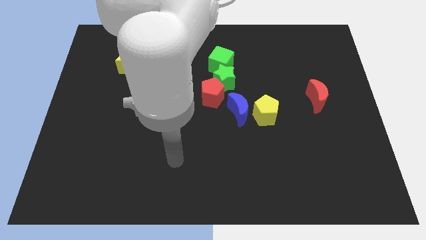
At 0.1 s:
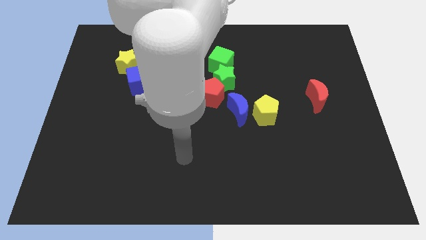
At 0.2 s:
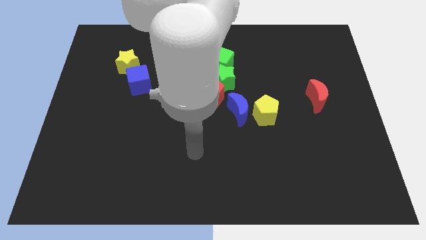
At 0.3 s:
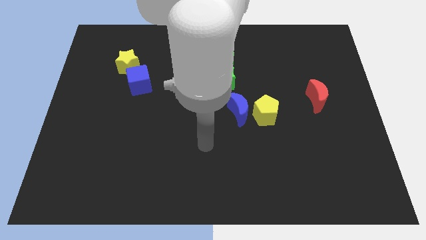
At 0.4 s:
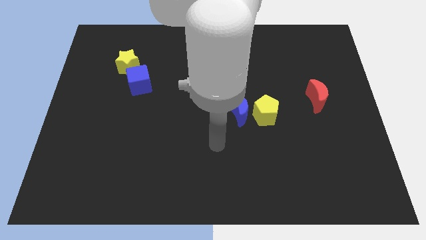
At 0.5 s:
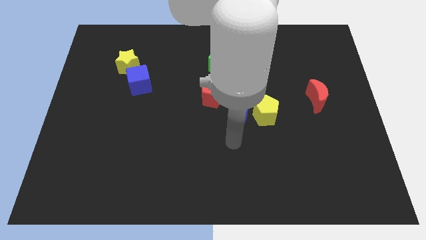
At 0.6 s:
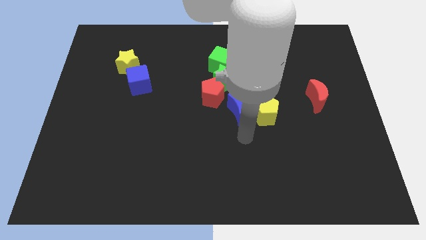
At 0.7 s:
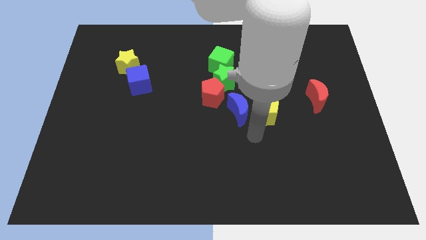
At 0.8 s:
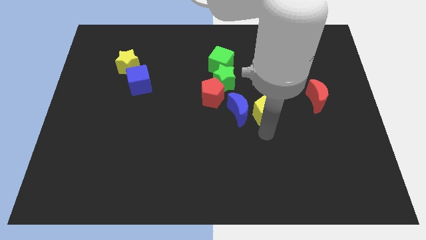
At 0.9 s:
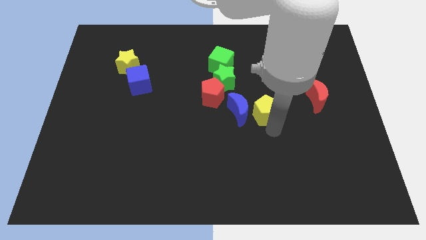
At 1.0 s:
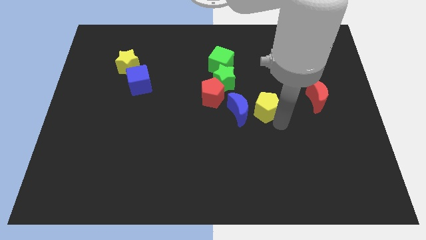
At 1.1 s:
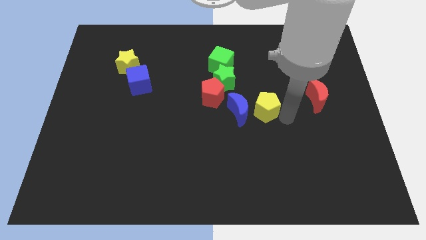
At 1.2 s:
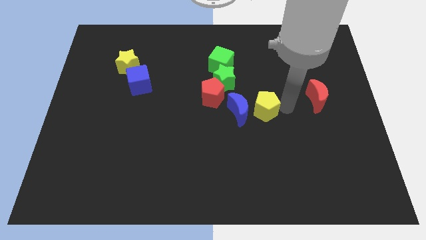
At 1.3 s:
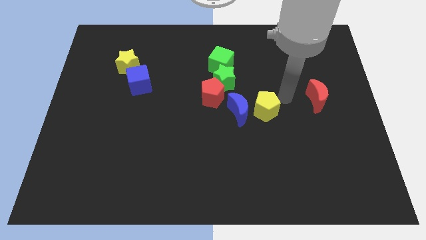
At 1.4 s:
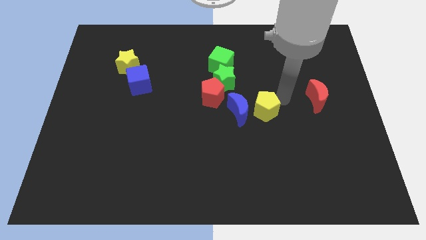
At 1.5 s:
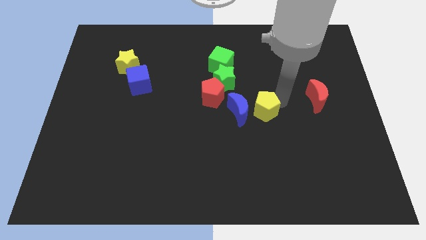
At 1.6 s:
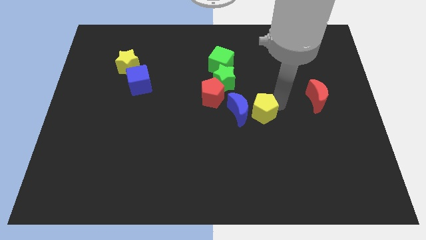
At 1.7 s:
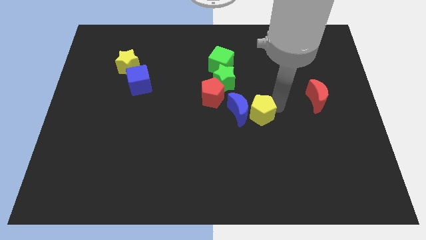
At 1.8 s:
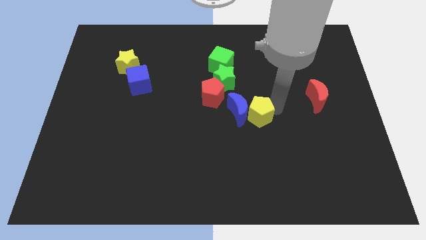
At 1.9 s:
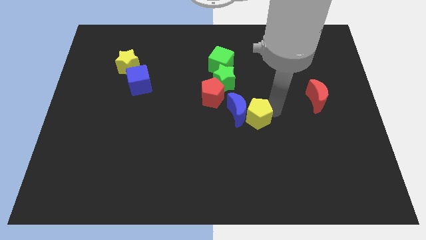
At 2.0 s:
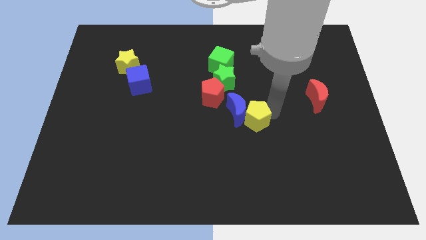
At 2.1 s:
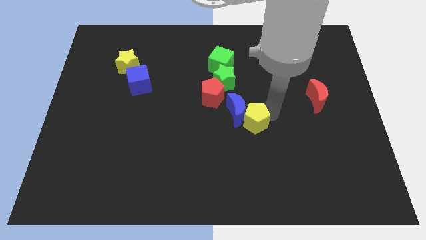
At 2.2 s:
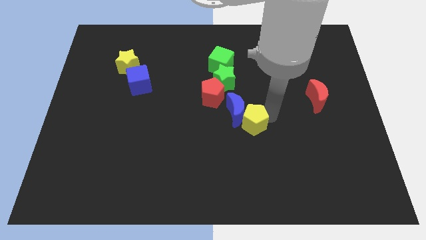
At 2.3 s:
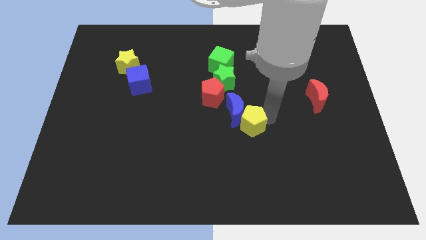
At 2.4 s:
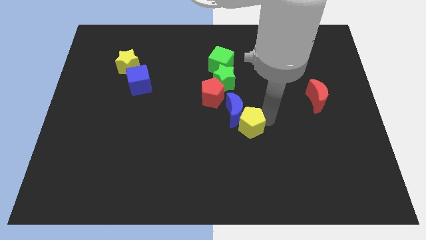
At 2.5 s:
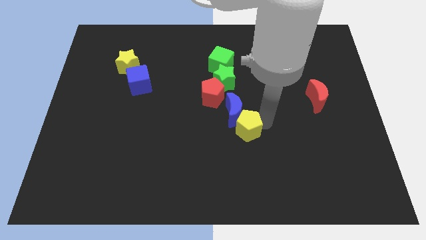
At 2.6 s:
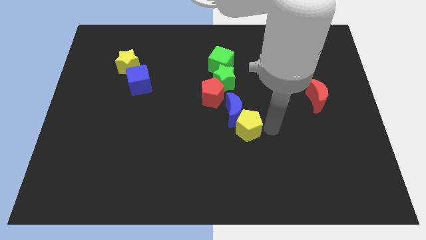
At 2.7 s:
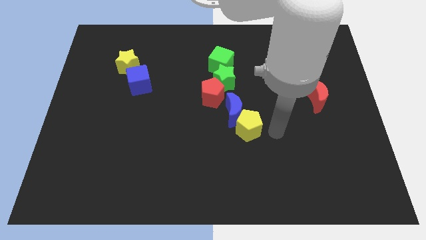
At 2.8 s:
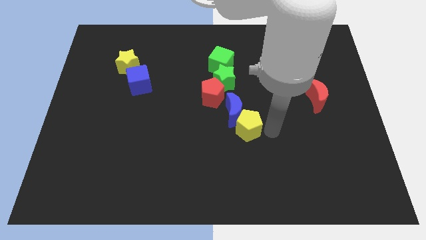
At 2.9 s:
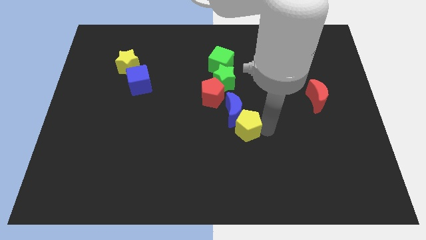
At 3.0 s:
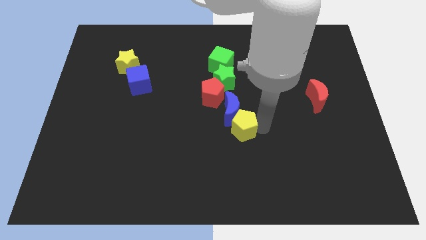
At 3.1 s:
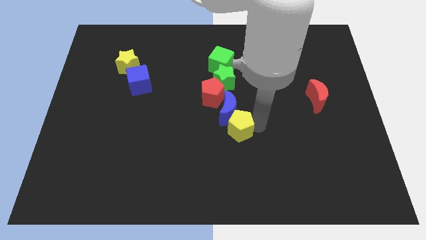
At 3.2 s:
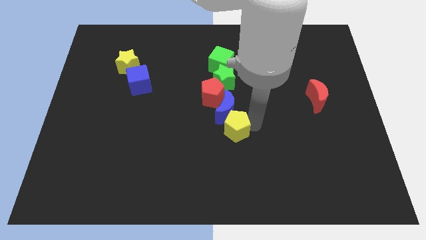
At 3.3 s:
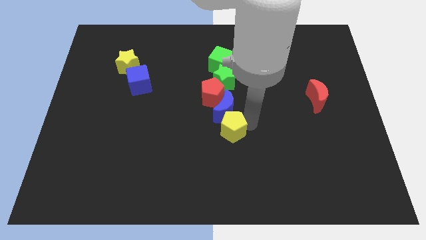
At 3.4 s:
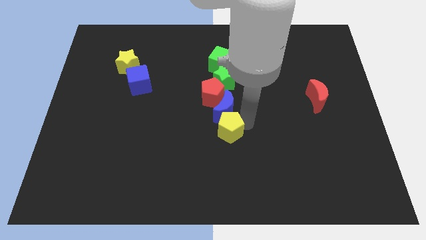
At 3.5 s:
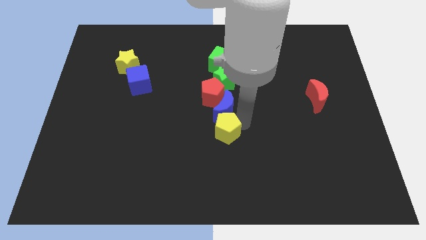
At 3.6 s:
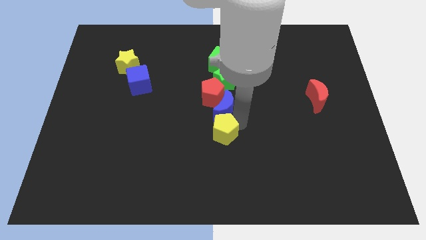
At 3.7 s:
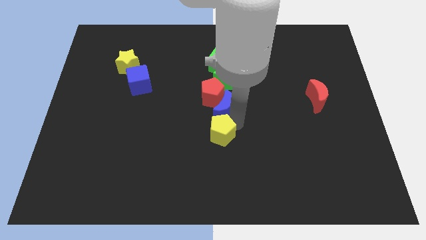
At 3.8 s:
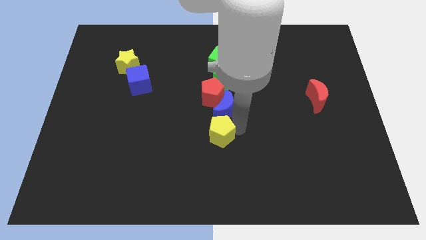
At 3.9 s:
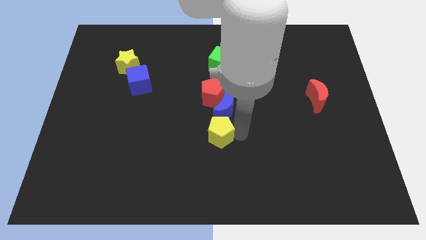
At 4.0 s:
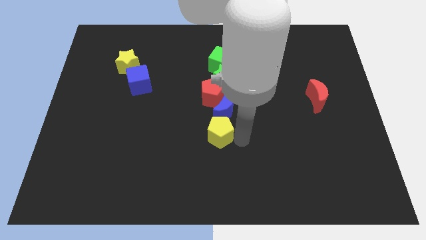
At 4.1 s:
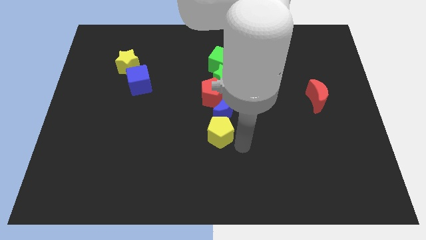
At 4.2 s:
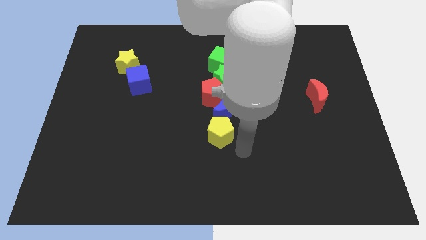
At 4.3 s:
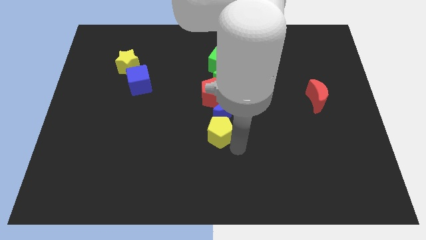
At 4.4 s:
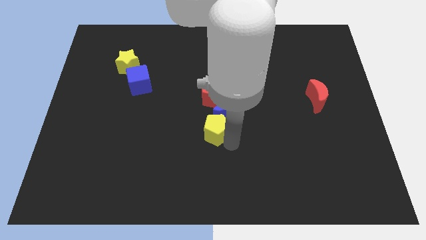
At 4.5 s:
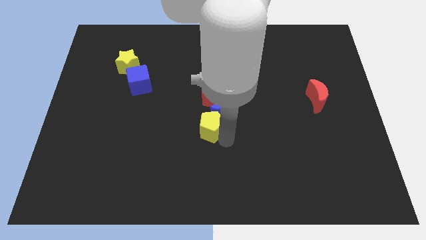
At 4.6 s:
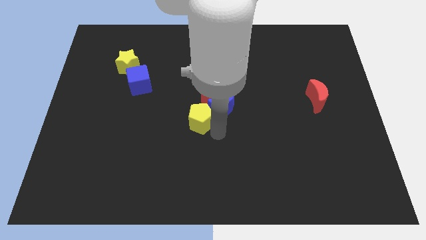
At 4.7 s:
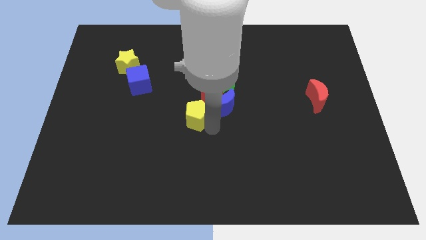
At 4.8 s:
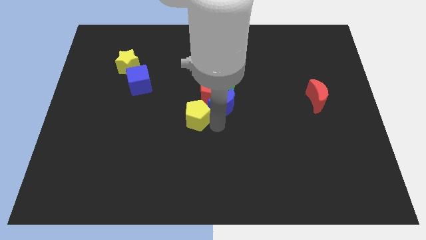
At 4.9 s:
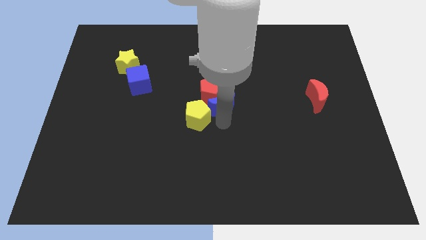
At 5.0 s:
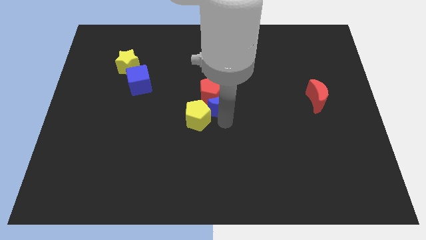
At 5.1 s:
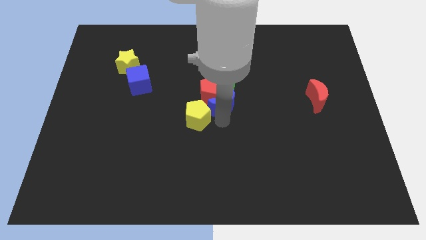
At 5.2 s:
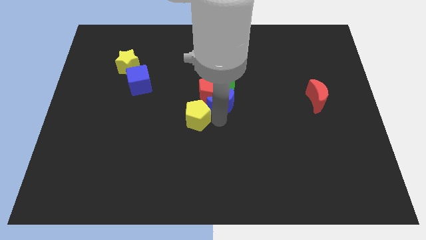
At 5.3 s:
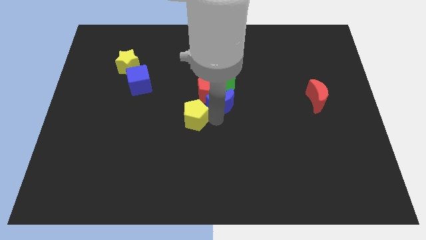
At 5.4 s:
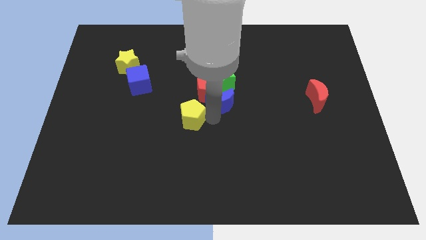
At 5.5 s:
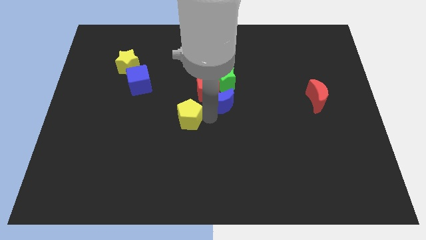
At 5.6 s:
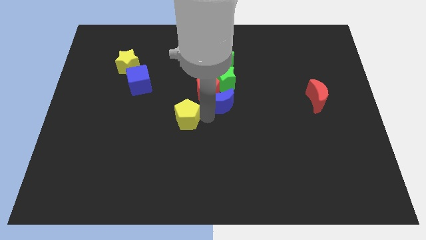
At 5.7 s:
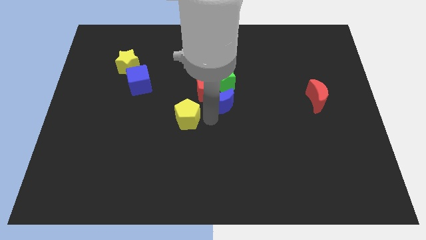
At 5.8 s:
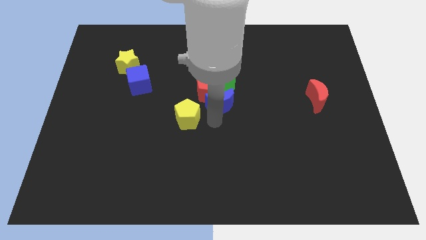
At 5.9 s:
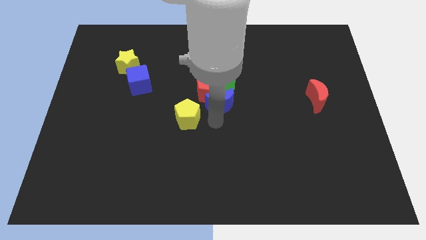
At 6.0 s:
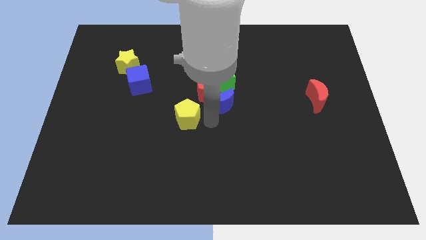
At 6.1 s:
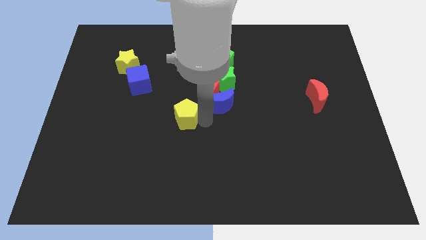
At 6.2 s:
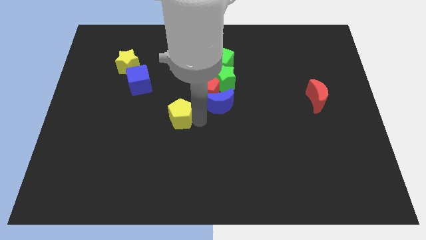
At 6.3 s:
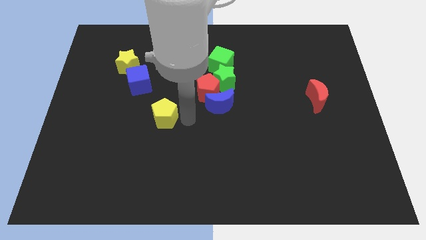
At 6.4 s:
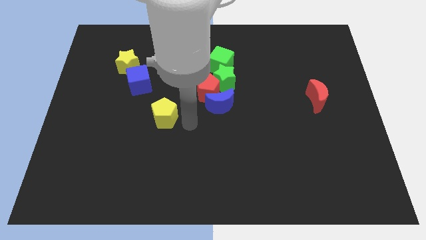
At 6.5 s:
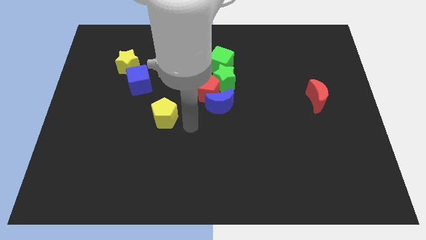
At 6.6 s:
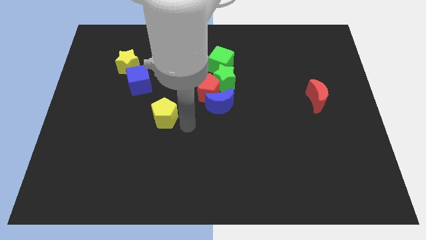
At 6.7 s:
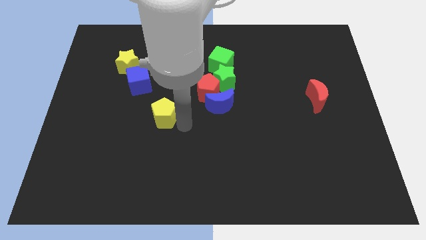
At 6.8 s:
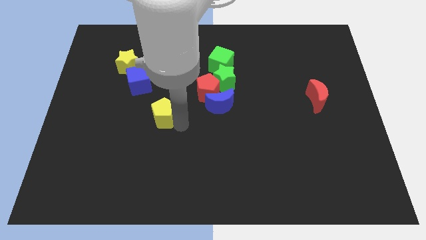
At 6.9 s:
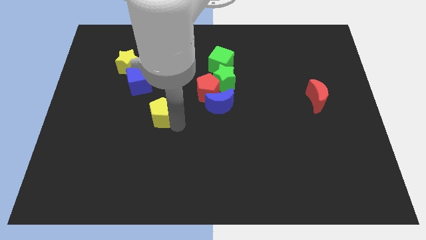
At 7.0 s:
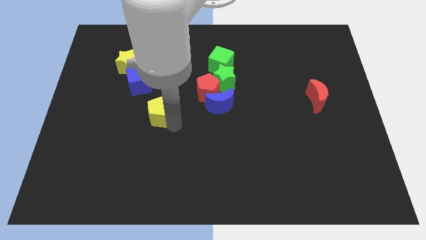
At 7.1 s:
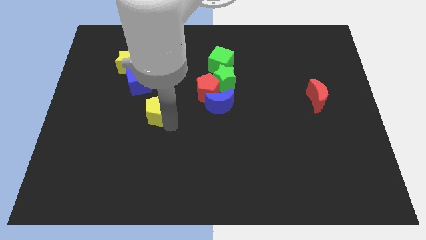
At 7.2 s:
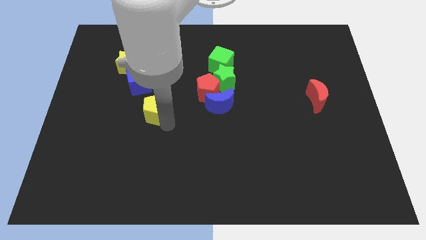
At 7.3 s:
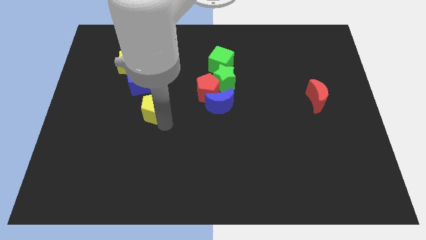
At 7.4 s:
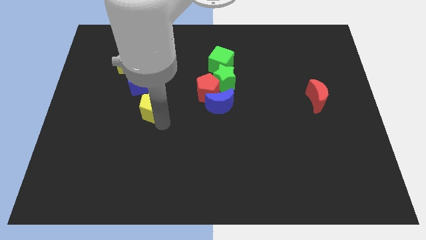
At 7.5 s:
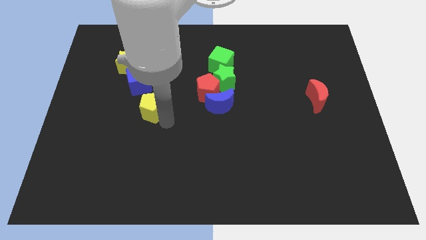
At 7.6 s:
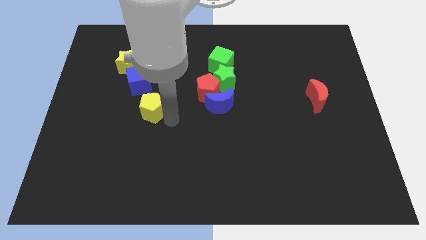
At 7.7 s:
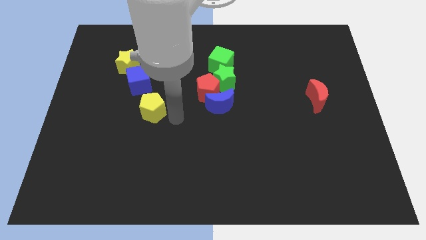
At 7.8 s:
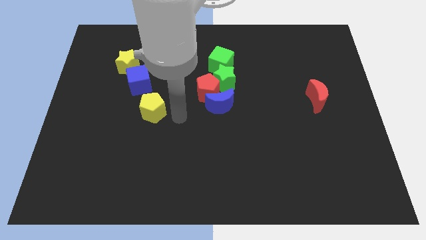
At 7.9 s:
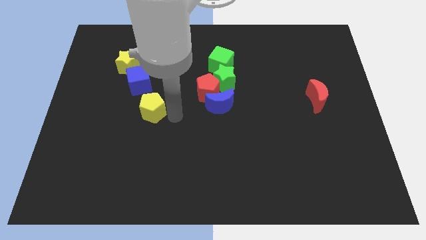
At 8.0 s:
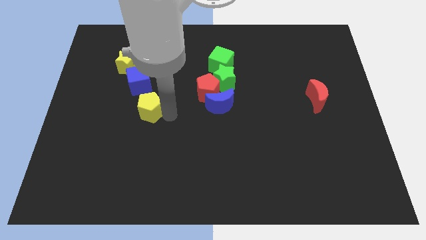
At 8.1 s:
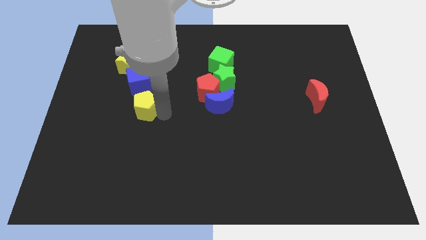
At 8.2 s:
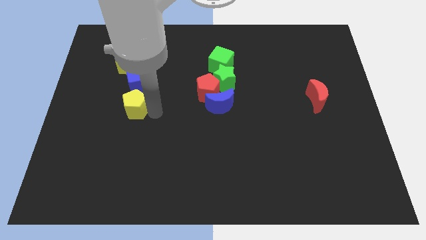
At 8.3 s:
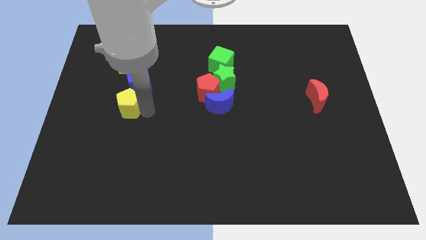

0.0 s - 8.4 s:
slide the yellow pentagon to the bottom left side of the blue cube
